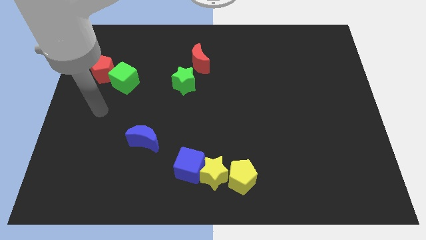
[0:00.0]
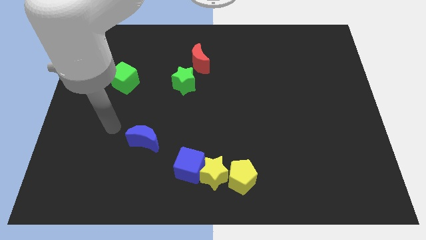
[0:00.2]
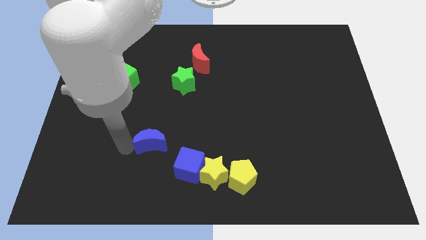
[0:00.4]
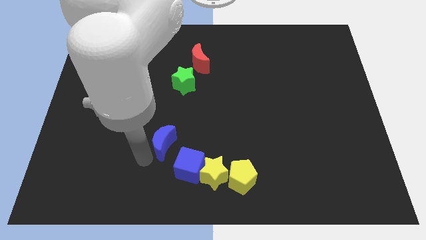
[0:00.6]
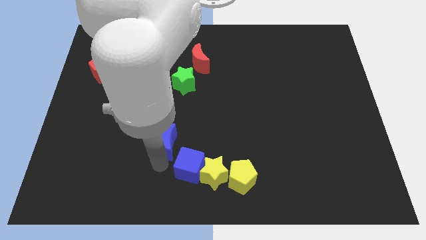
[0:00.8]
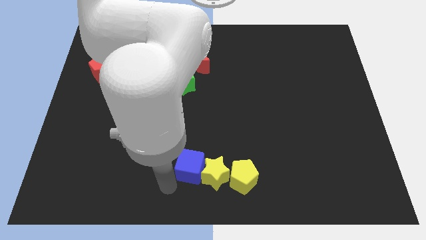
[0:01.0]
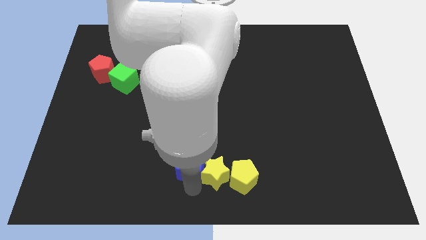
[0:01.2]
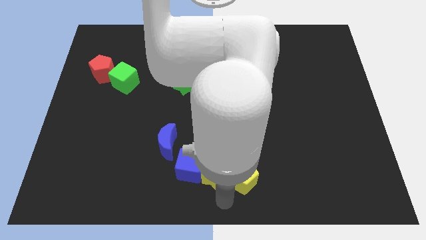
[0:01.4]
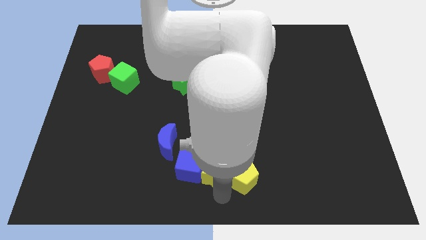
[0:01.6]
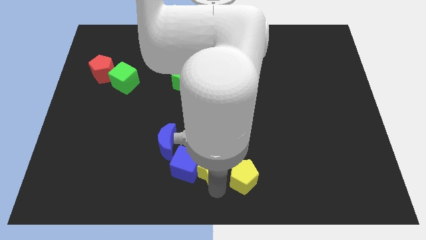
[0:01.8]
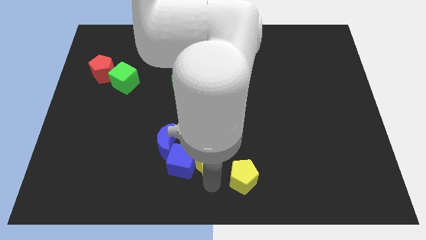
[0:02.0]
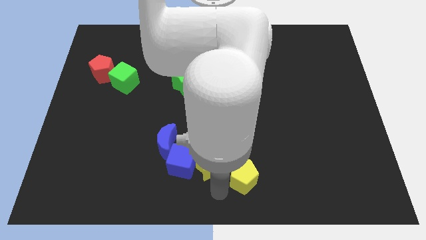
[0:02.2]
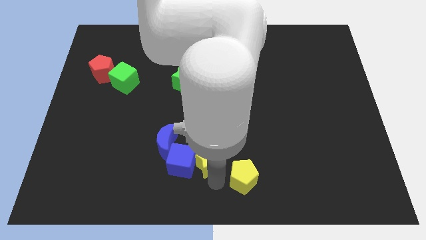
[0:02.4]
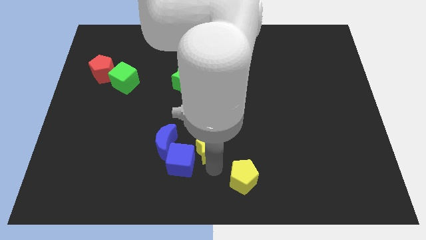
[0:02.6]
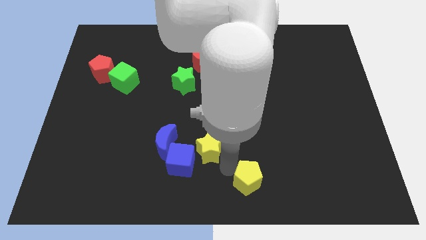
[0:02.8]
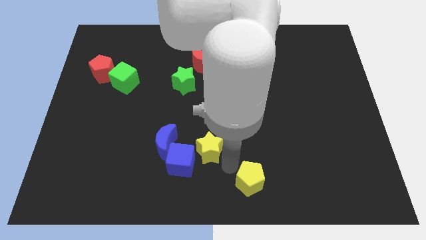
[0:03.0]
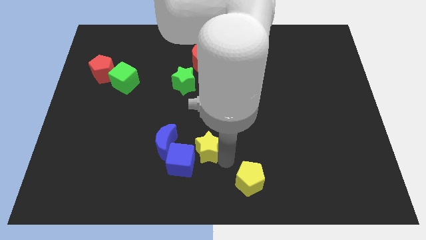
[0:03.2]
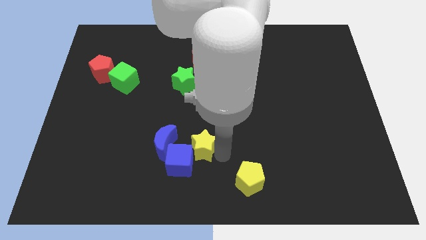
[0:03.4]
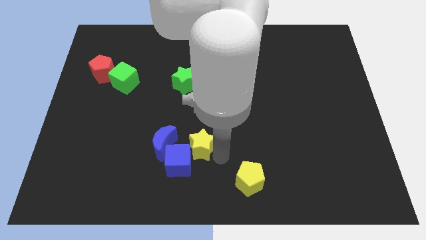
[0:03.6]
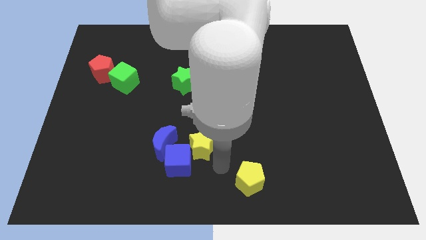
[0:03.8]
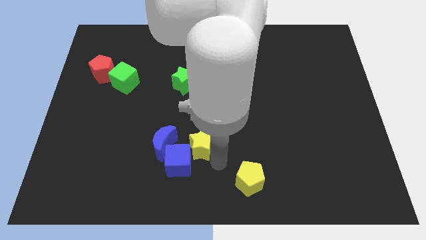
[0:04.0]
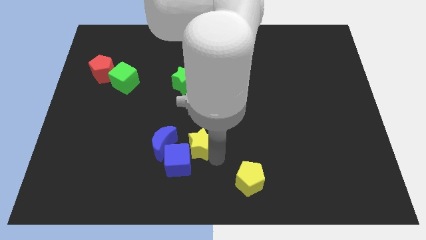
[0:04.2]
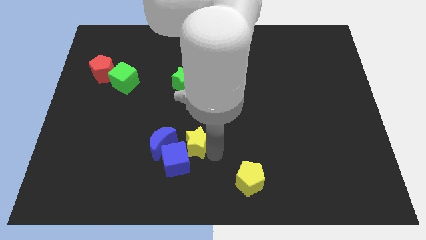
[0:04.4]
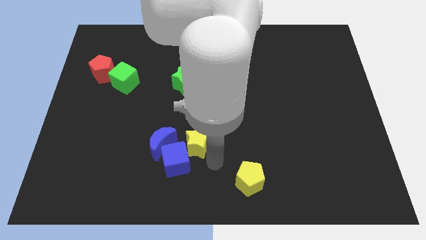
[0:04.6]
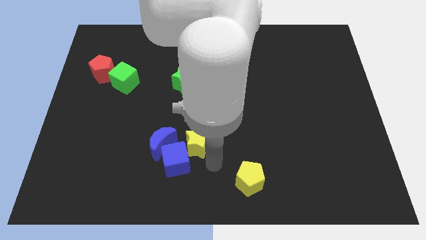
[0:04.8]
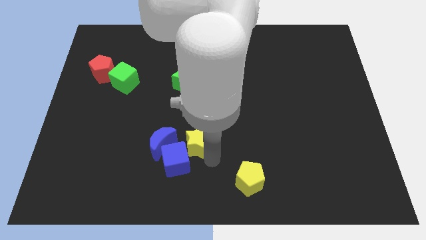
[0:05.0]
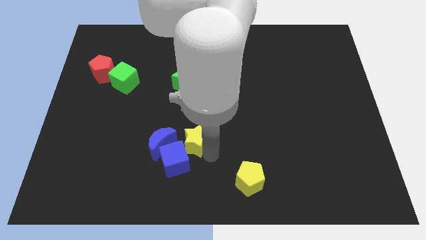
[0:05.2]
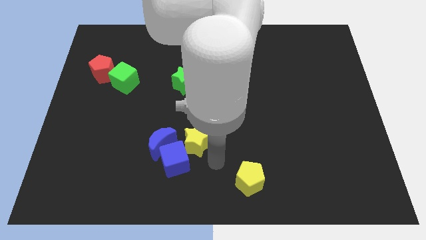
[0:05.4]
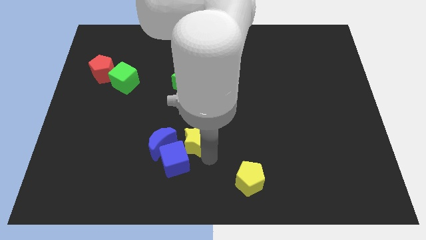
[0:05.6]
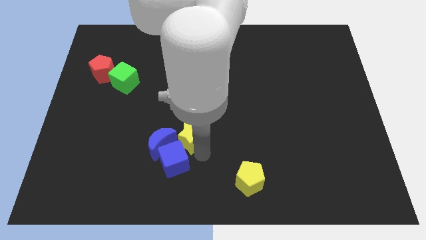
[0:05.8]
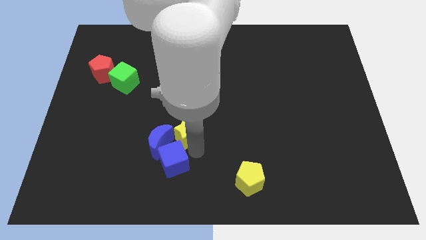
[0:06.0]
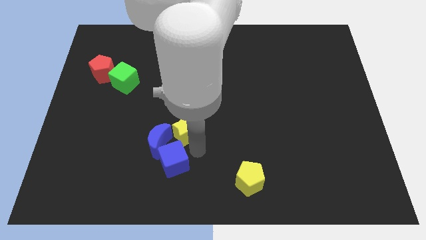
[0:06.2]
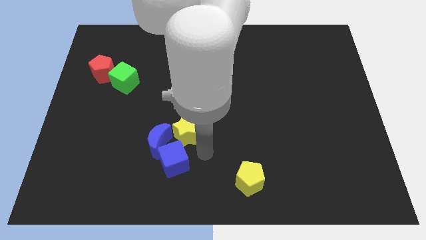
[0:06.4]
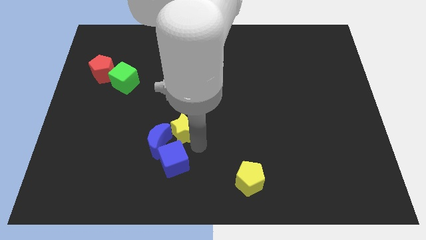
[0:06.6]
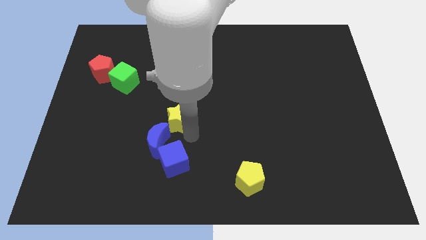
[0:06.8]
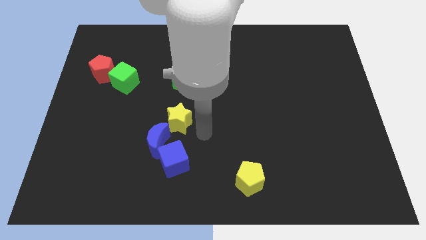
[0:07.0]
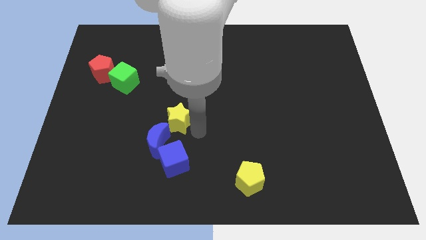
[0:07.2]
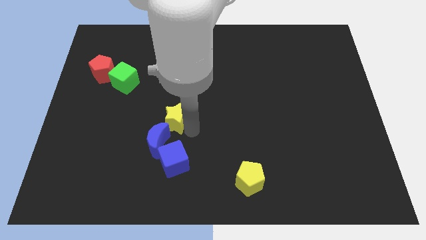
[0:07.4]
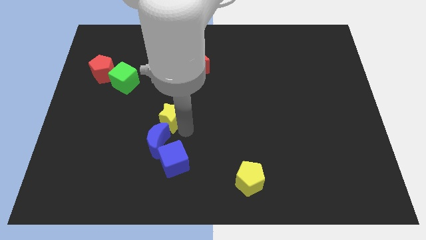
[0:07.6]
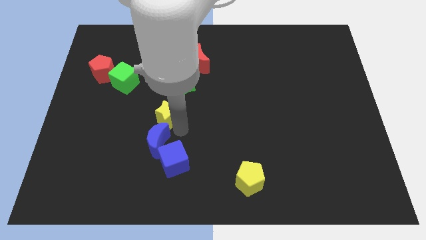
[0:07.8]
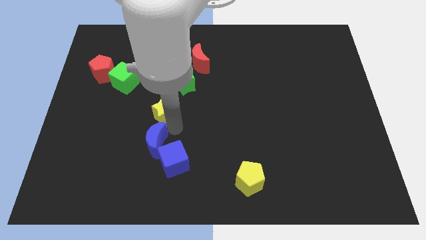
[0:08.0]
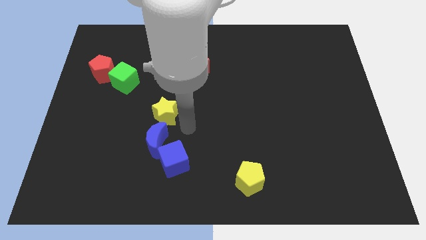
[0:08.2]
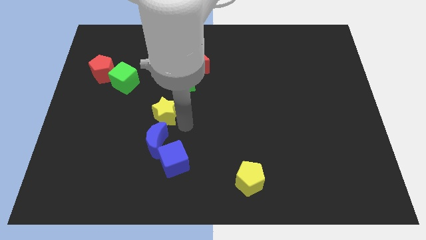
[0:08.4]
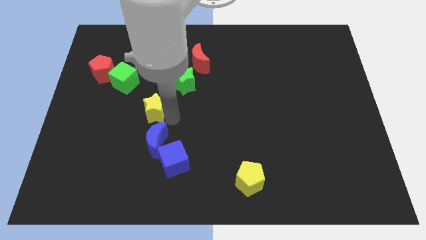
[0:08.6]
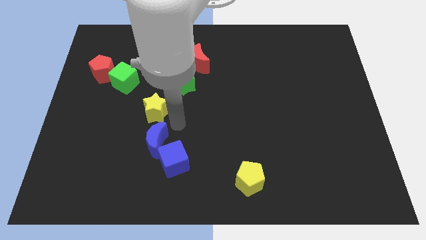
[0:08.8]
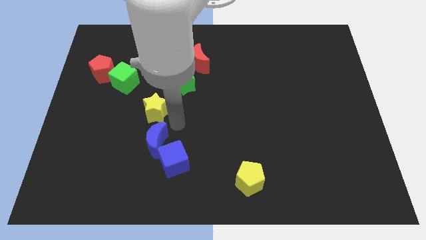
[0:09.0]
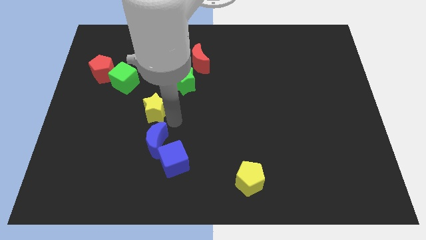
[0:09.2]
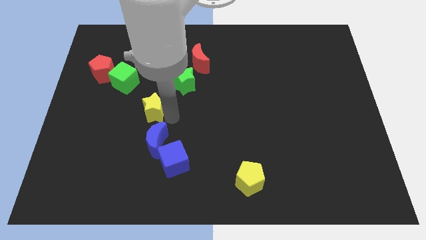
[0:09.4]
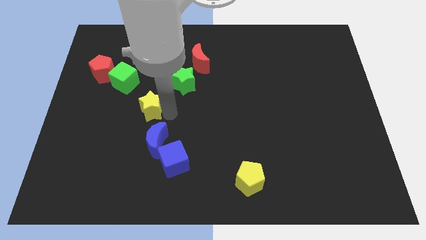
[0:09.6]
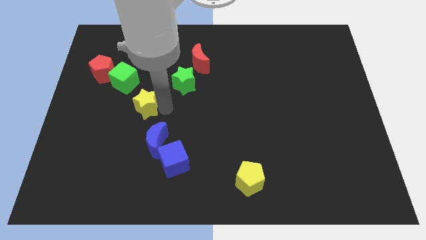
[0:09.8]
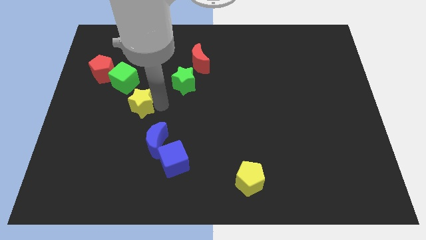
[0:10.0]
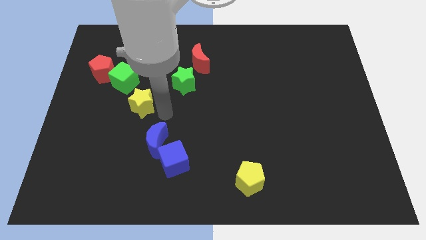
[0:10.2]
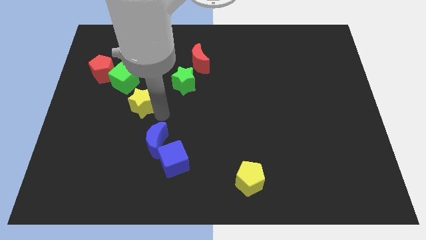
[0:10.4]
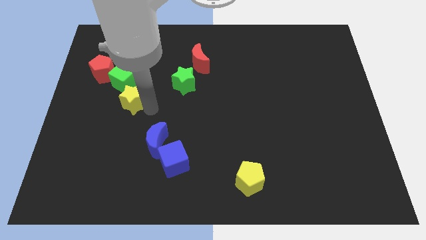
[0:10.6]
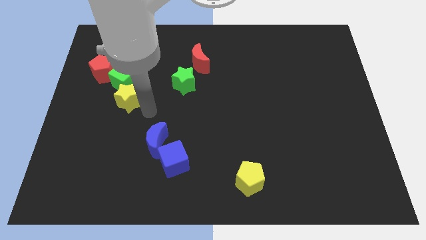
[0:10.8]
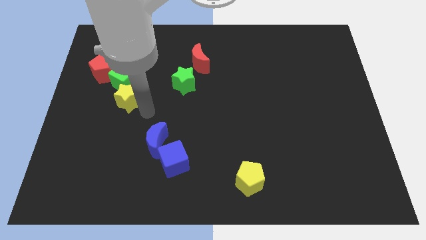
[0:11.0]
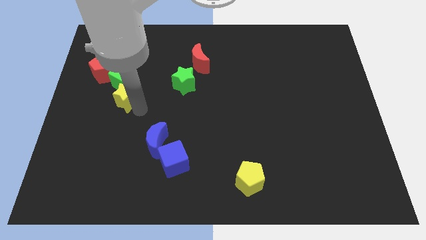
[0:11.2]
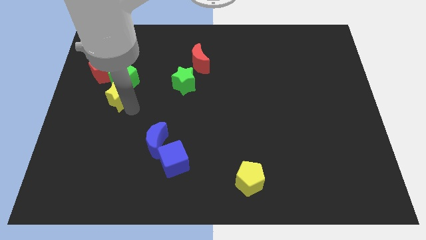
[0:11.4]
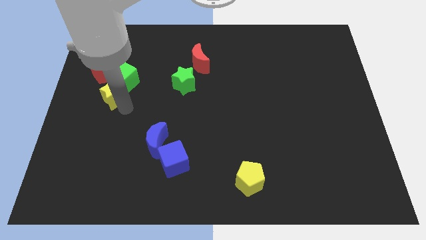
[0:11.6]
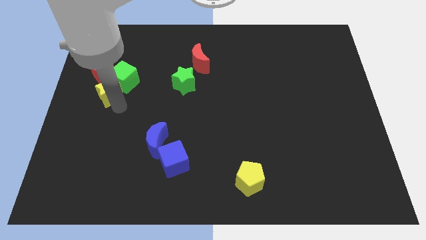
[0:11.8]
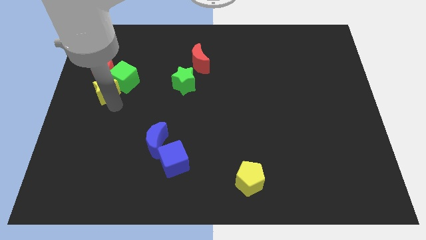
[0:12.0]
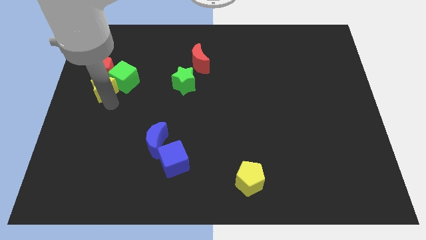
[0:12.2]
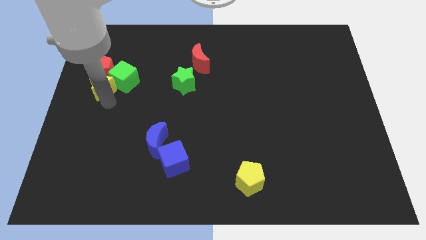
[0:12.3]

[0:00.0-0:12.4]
move the yellow star next to the red pentagon

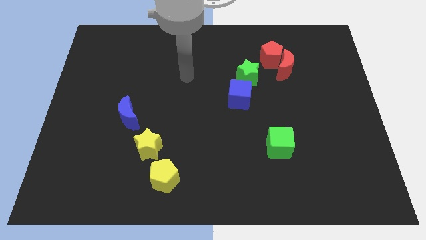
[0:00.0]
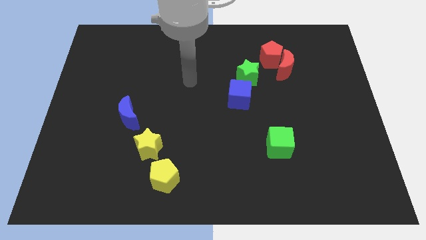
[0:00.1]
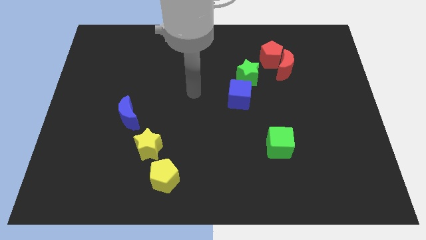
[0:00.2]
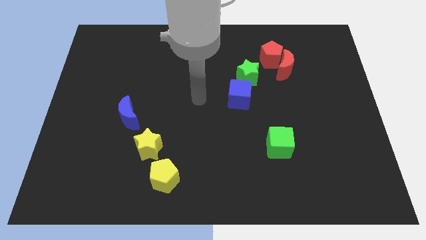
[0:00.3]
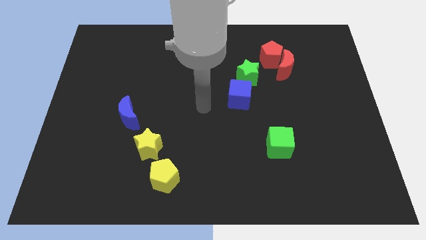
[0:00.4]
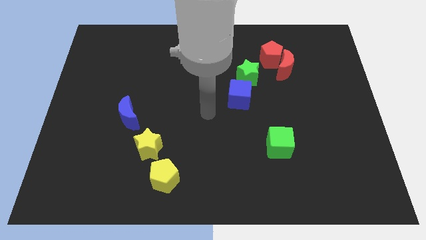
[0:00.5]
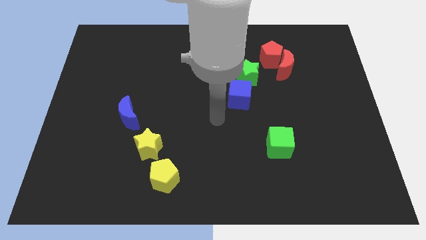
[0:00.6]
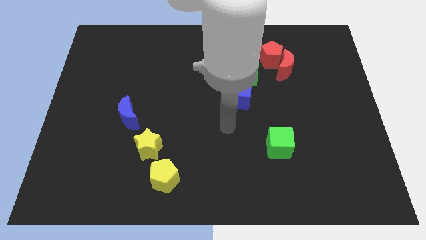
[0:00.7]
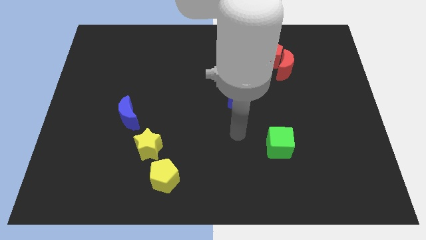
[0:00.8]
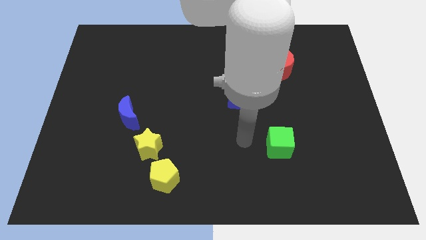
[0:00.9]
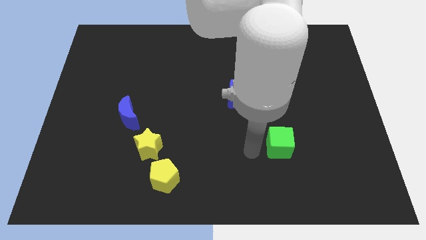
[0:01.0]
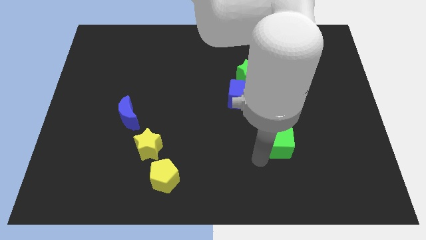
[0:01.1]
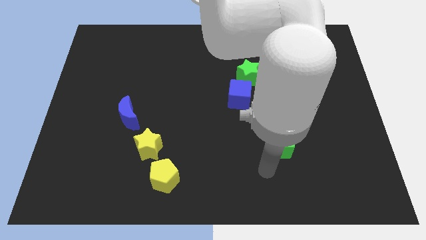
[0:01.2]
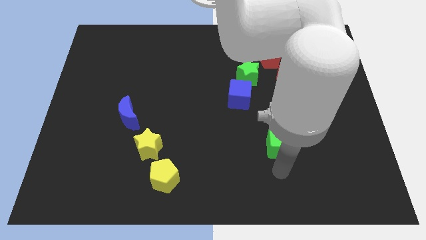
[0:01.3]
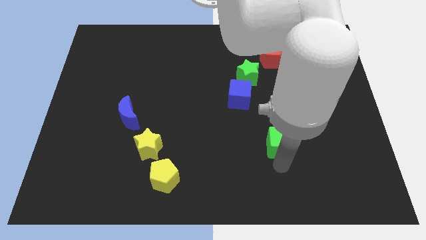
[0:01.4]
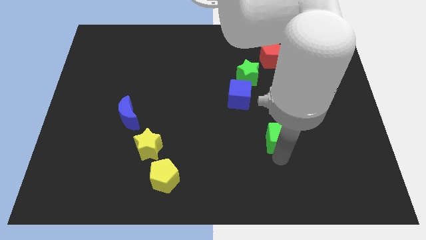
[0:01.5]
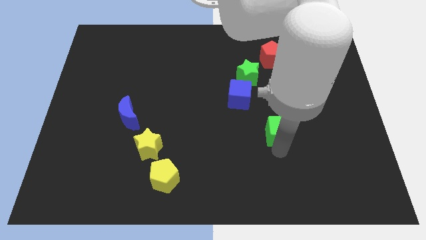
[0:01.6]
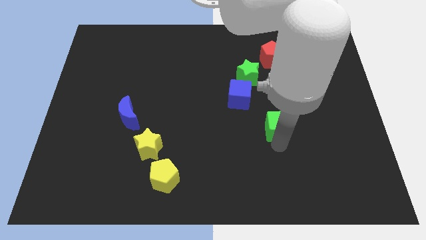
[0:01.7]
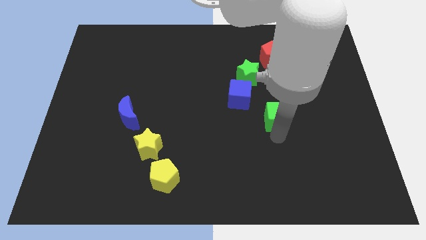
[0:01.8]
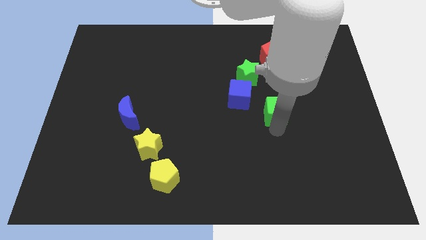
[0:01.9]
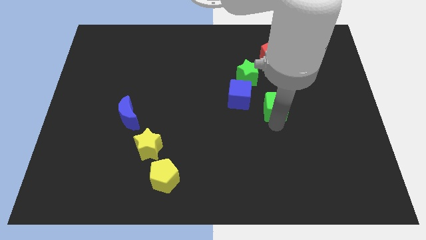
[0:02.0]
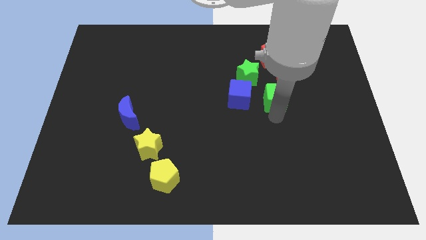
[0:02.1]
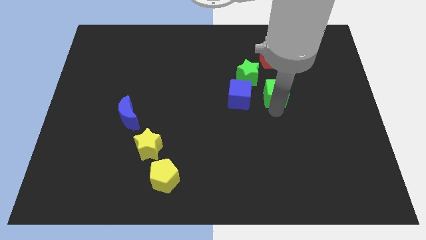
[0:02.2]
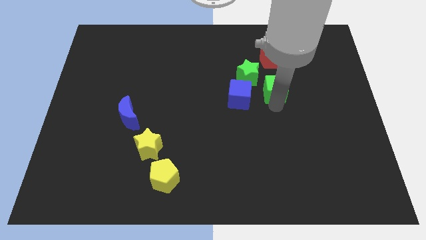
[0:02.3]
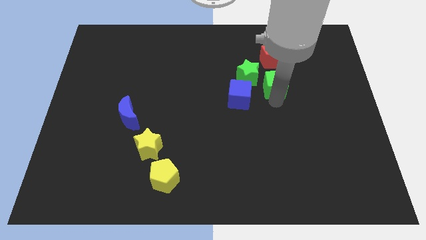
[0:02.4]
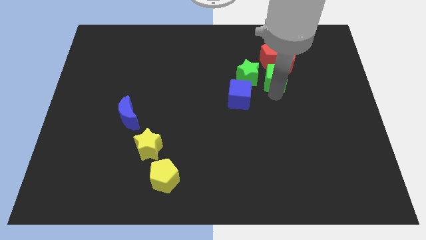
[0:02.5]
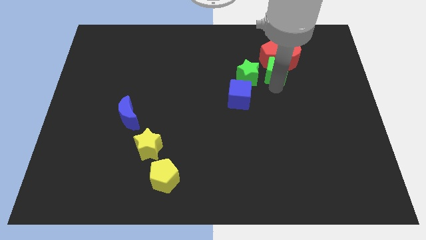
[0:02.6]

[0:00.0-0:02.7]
push the green cube close to the red pentagon
